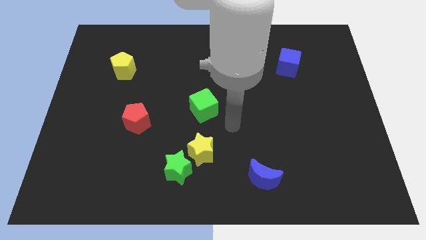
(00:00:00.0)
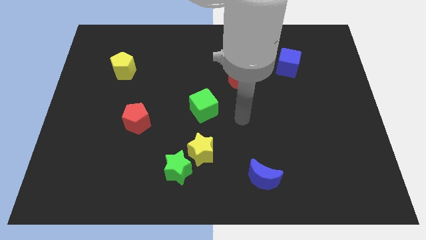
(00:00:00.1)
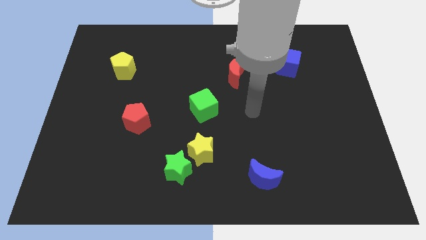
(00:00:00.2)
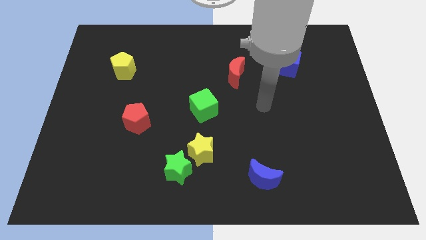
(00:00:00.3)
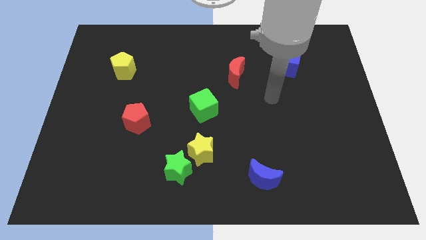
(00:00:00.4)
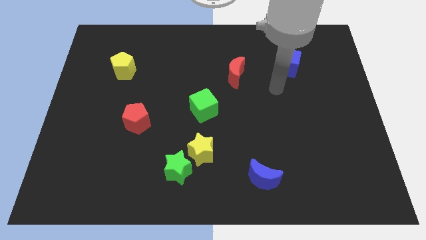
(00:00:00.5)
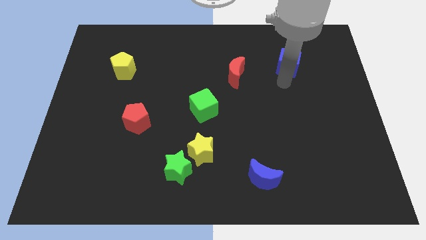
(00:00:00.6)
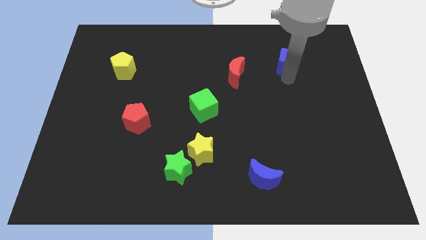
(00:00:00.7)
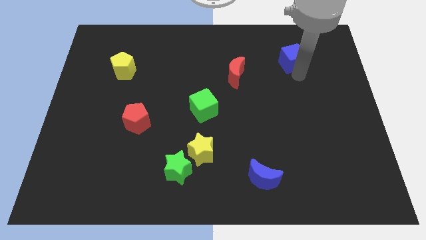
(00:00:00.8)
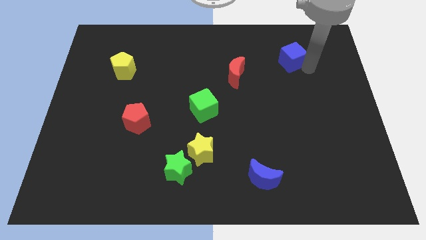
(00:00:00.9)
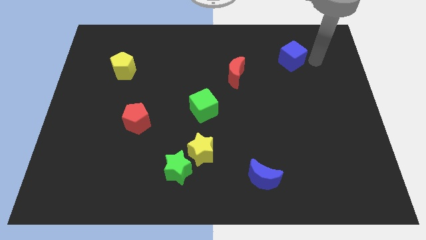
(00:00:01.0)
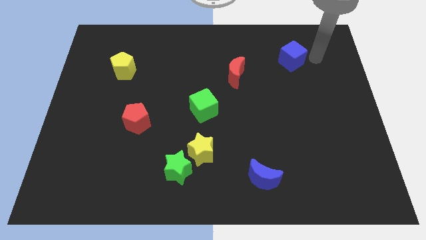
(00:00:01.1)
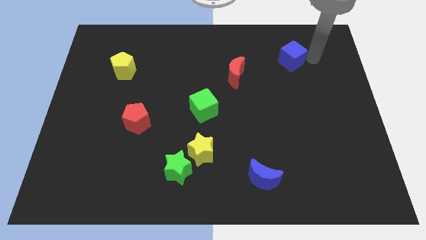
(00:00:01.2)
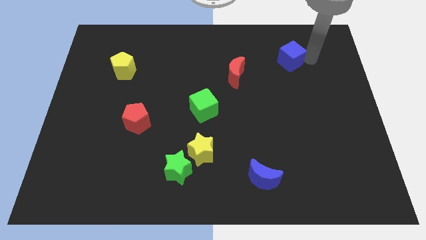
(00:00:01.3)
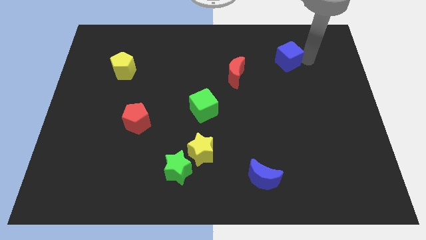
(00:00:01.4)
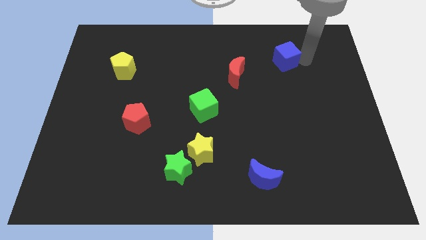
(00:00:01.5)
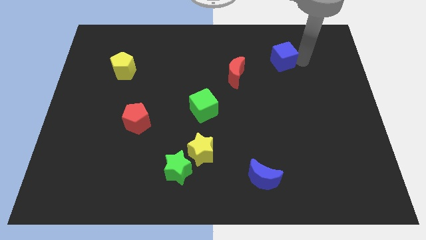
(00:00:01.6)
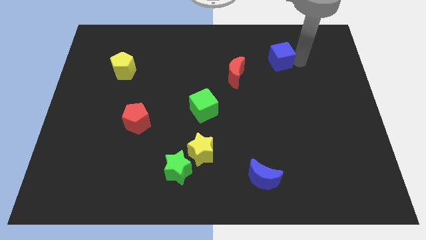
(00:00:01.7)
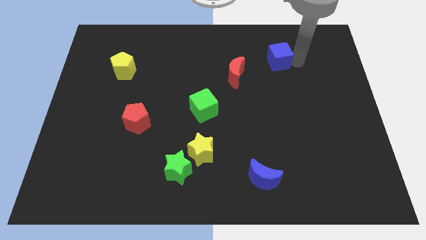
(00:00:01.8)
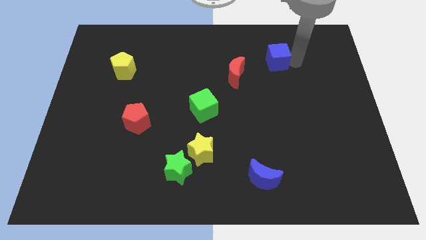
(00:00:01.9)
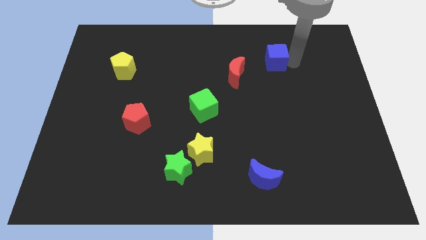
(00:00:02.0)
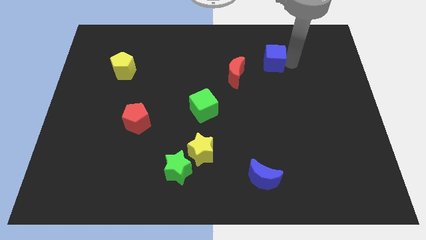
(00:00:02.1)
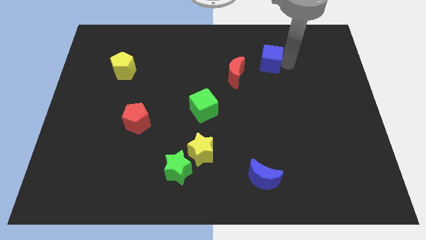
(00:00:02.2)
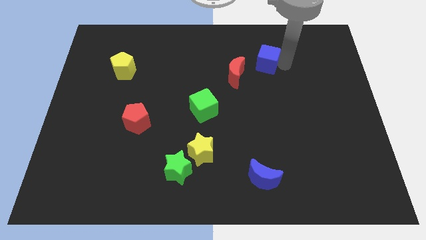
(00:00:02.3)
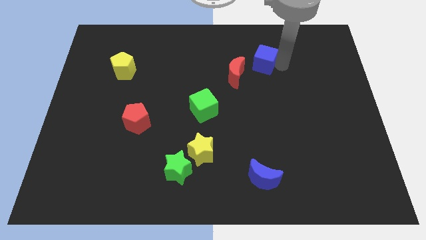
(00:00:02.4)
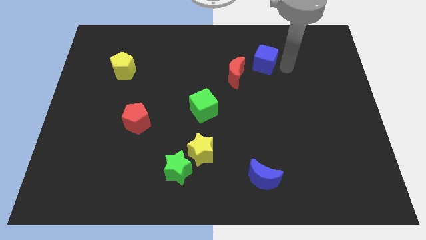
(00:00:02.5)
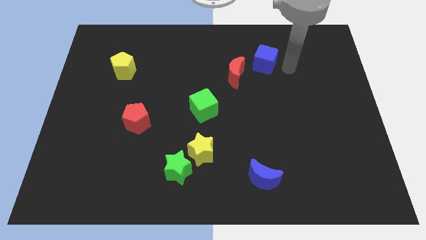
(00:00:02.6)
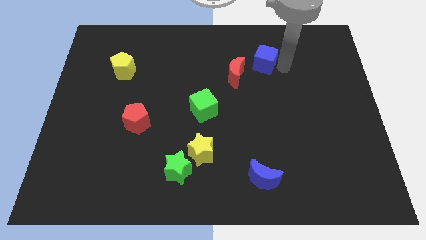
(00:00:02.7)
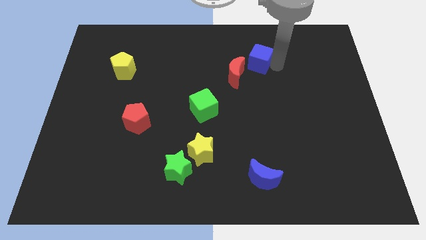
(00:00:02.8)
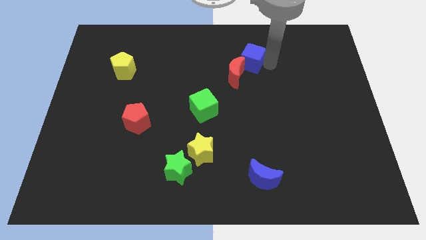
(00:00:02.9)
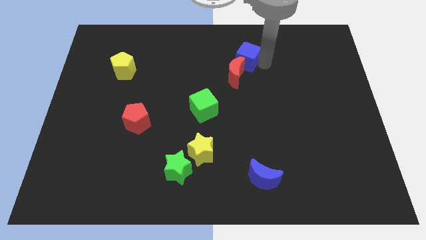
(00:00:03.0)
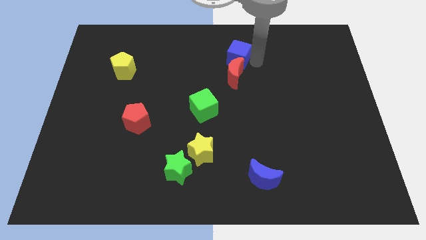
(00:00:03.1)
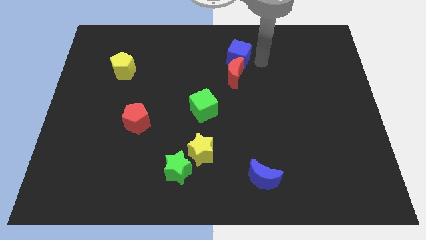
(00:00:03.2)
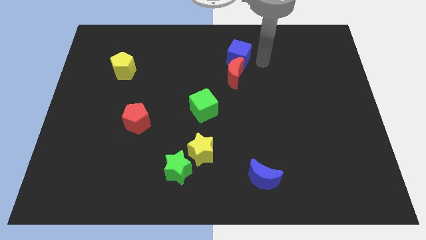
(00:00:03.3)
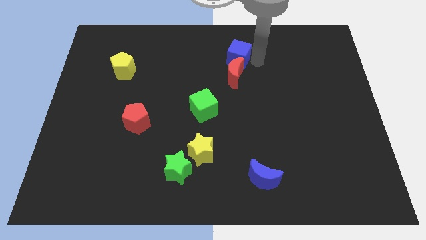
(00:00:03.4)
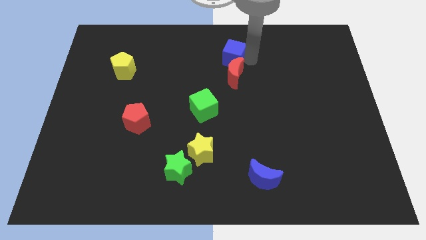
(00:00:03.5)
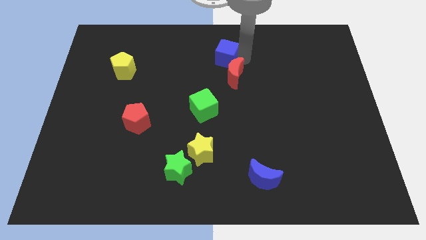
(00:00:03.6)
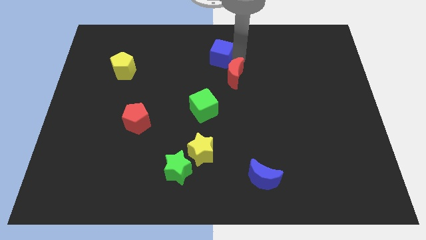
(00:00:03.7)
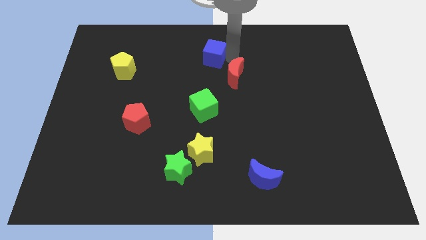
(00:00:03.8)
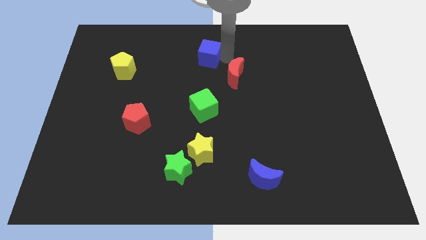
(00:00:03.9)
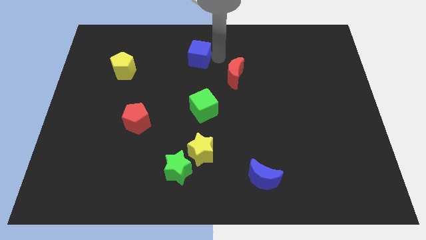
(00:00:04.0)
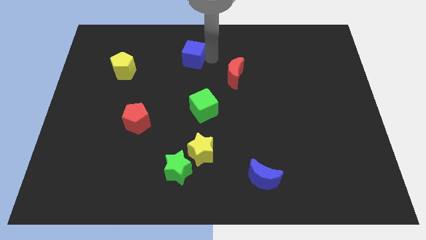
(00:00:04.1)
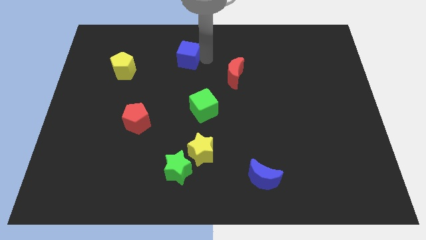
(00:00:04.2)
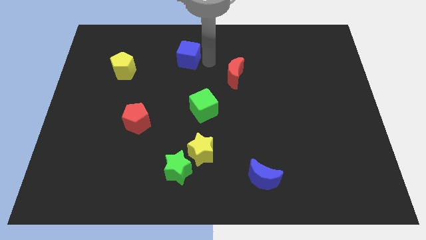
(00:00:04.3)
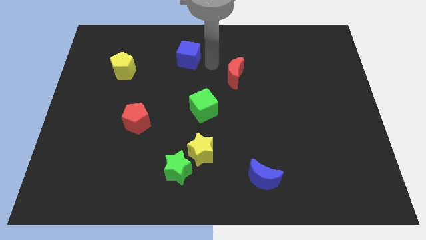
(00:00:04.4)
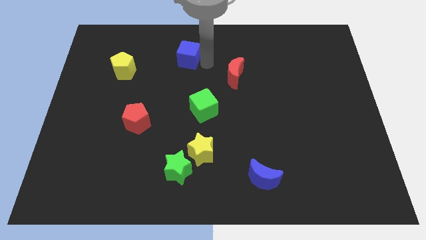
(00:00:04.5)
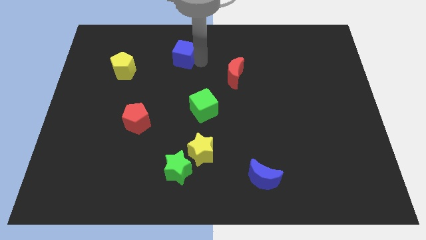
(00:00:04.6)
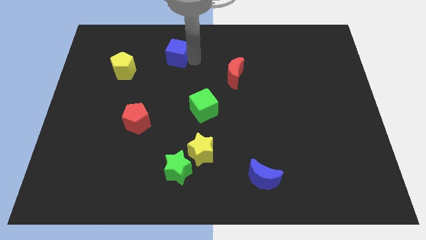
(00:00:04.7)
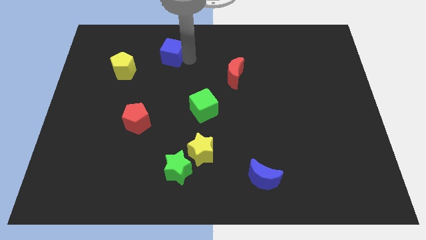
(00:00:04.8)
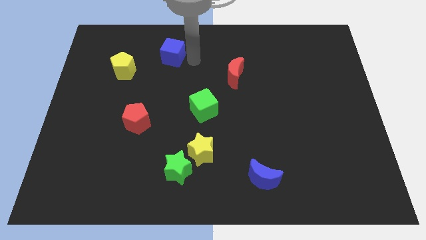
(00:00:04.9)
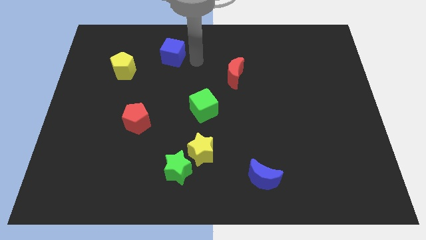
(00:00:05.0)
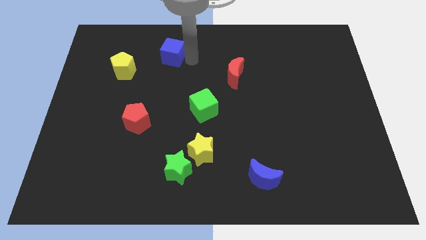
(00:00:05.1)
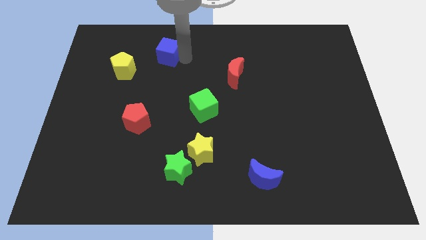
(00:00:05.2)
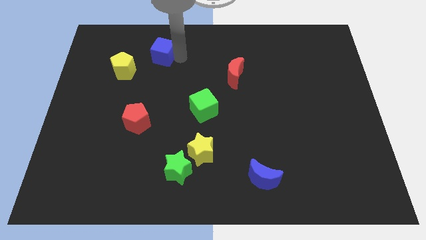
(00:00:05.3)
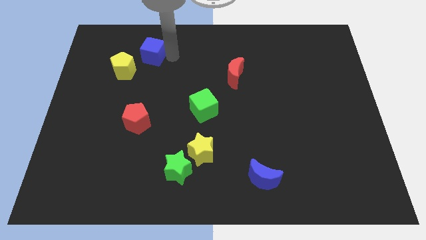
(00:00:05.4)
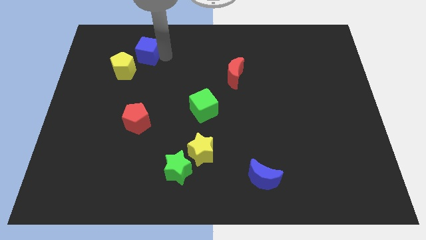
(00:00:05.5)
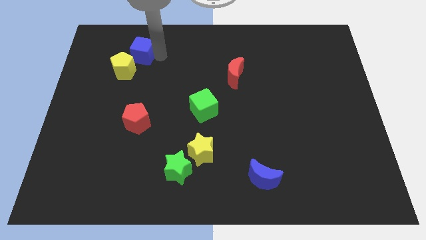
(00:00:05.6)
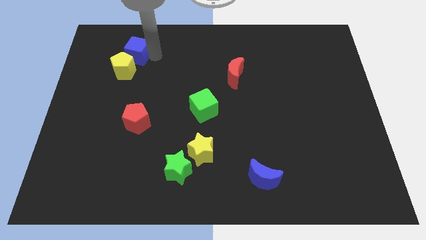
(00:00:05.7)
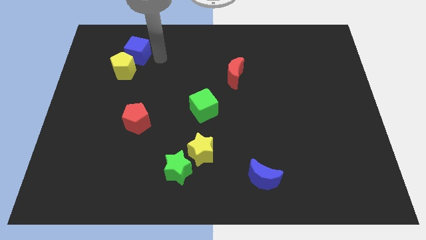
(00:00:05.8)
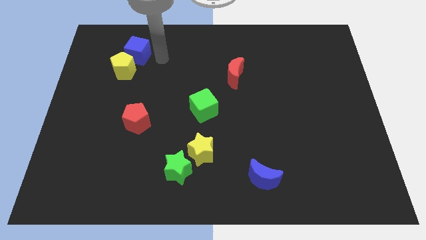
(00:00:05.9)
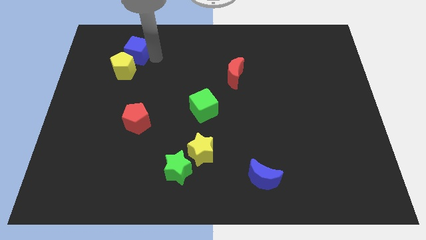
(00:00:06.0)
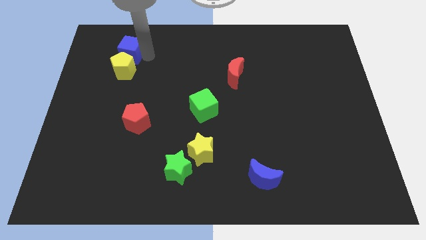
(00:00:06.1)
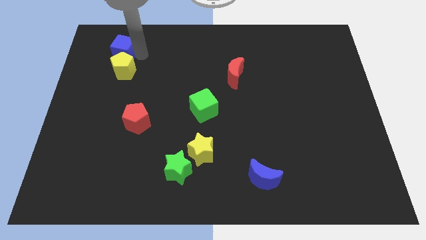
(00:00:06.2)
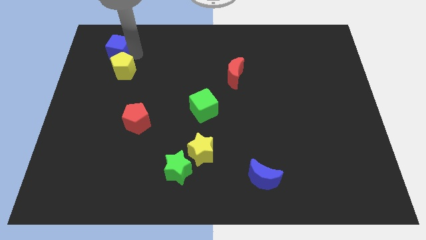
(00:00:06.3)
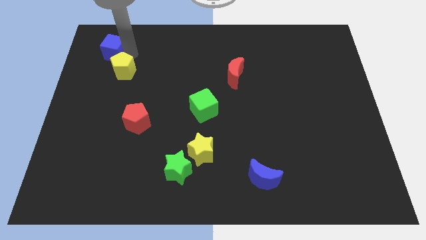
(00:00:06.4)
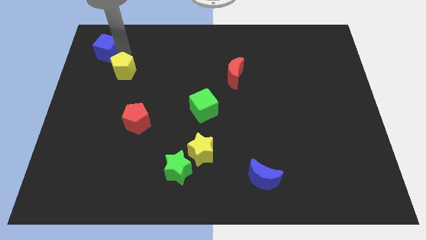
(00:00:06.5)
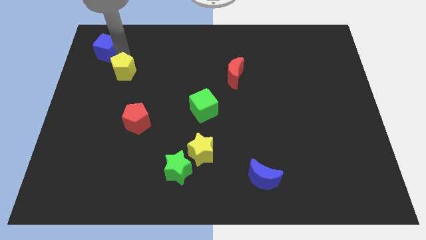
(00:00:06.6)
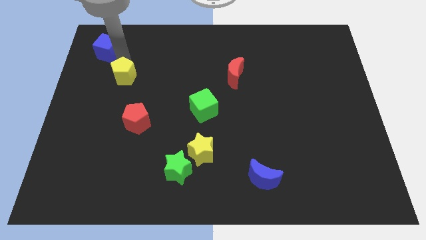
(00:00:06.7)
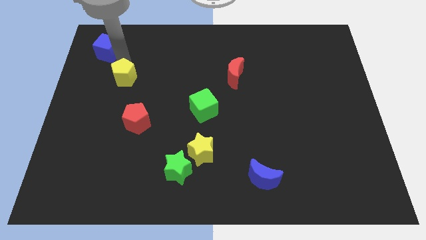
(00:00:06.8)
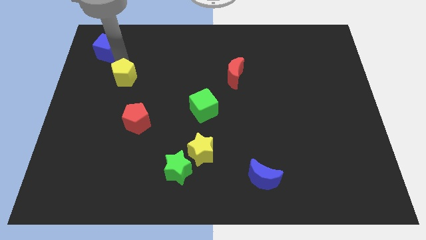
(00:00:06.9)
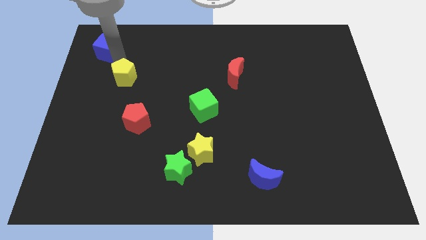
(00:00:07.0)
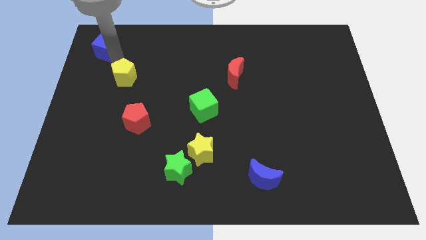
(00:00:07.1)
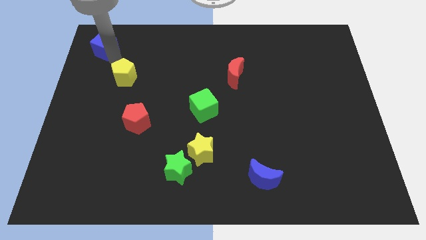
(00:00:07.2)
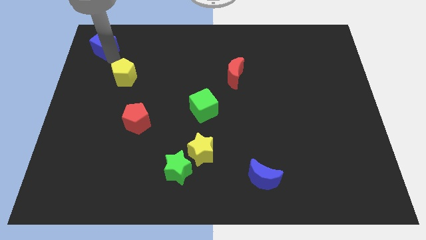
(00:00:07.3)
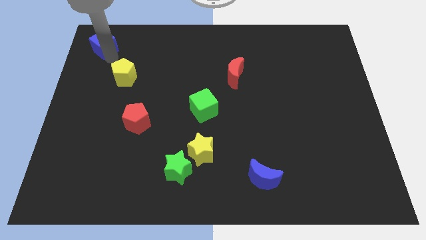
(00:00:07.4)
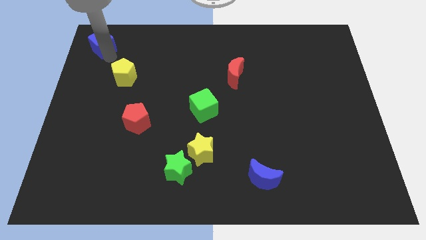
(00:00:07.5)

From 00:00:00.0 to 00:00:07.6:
push the blue cube to the top left corner

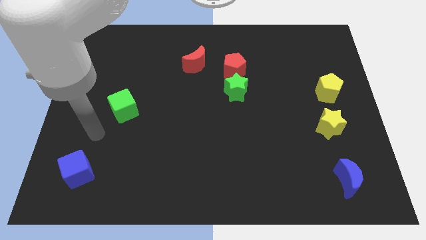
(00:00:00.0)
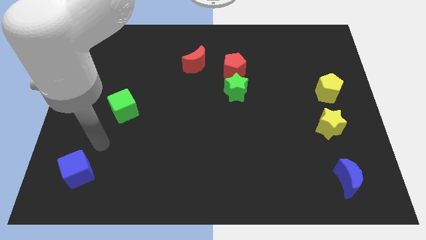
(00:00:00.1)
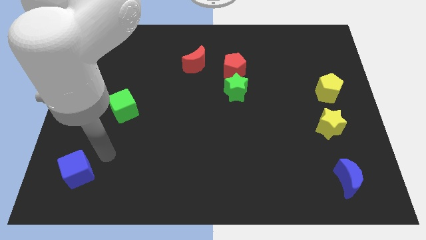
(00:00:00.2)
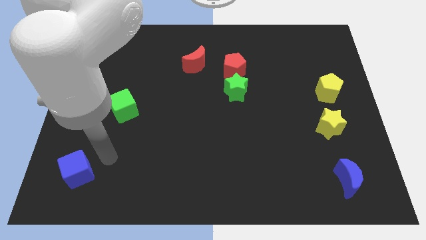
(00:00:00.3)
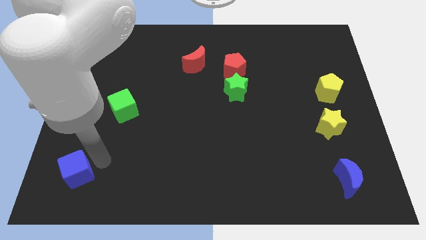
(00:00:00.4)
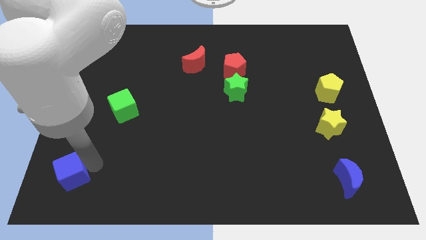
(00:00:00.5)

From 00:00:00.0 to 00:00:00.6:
put the blue cube to the bottom left corner
